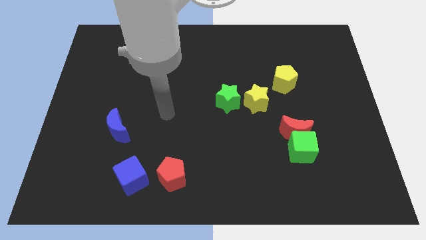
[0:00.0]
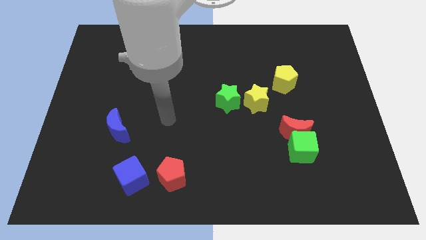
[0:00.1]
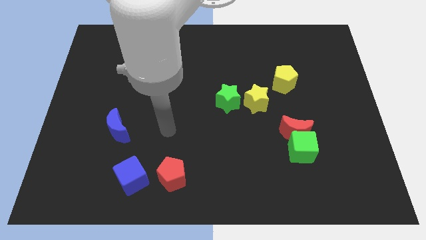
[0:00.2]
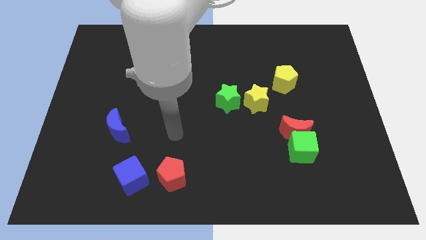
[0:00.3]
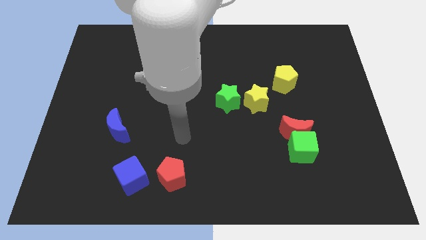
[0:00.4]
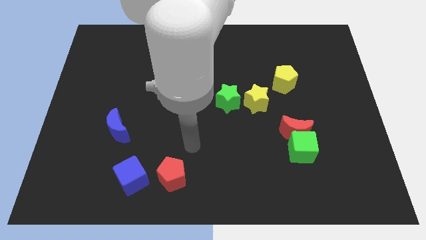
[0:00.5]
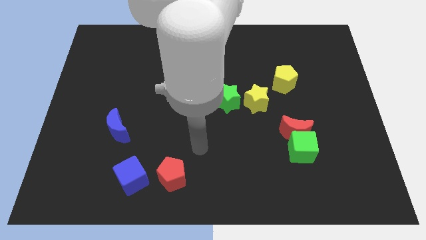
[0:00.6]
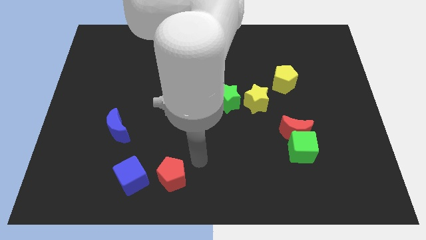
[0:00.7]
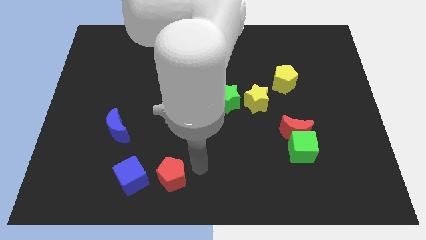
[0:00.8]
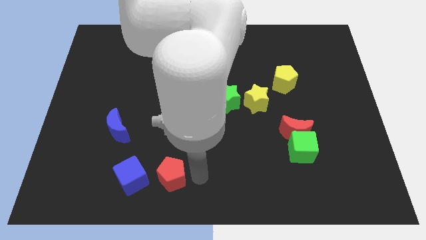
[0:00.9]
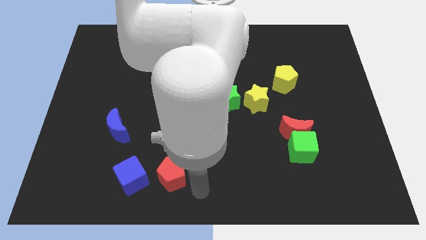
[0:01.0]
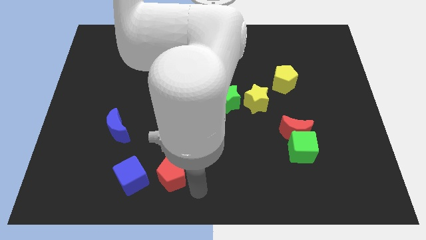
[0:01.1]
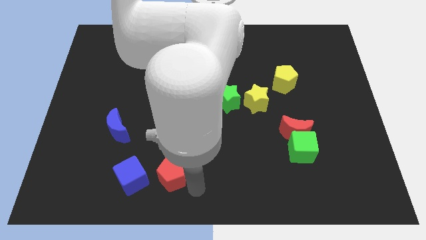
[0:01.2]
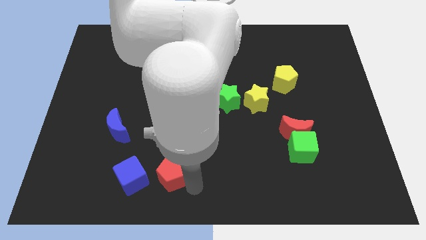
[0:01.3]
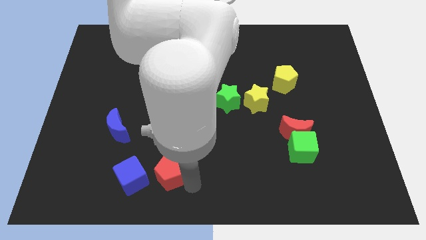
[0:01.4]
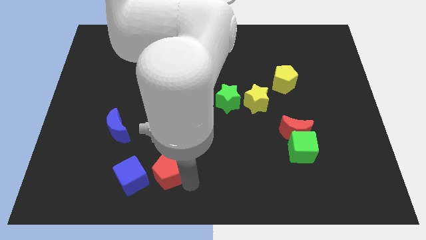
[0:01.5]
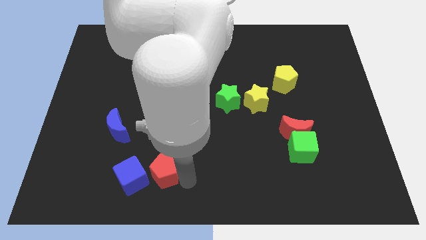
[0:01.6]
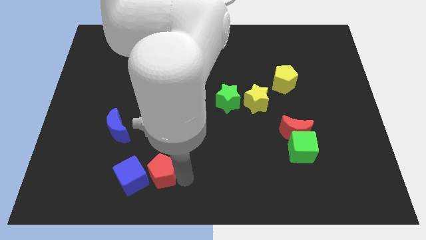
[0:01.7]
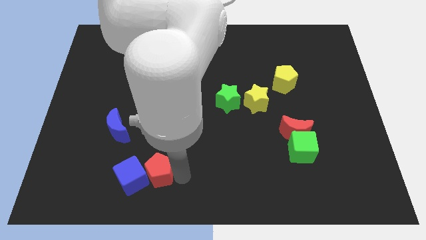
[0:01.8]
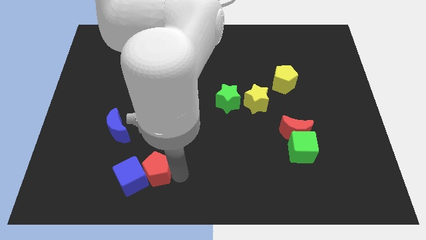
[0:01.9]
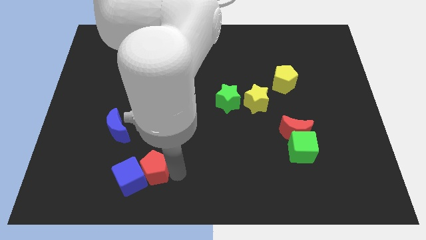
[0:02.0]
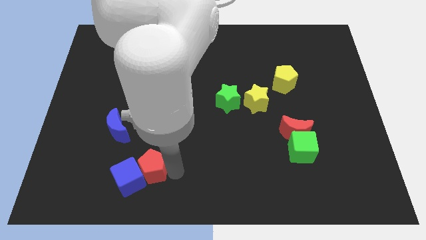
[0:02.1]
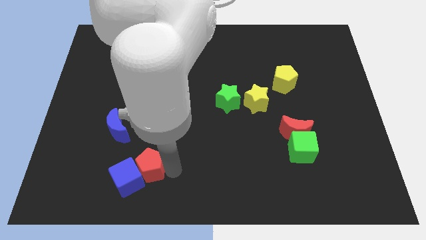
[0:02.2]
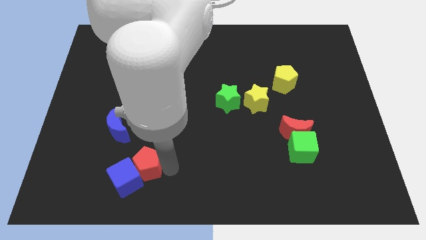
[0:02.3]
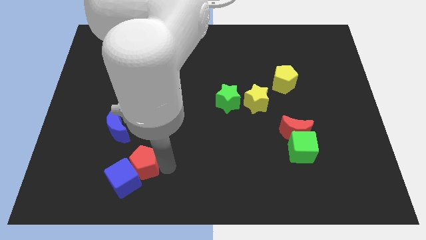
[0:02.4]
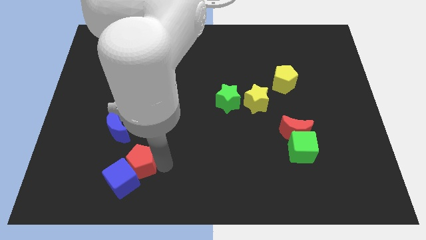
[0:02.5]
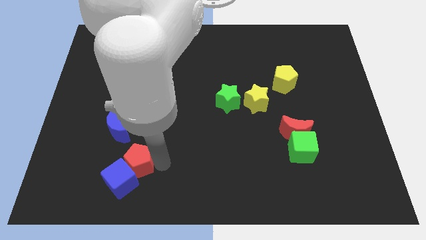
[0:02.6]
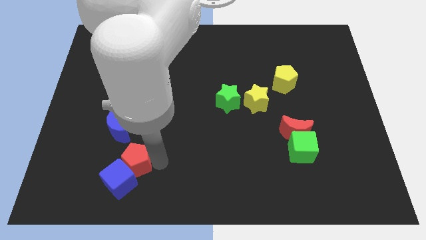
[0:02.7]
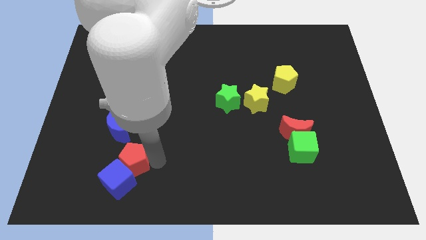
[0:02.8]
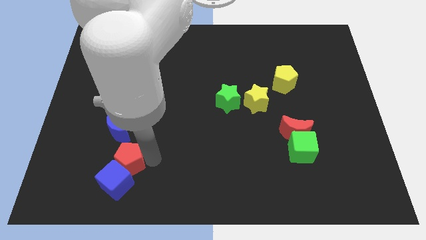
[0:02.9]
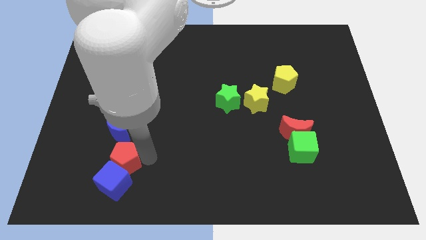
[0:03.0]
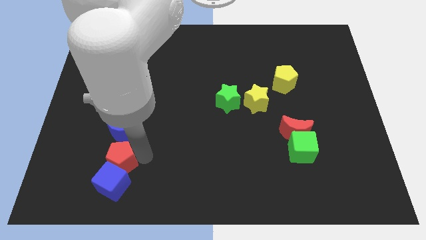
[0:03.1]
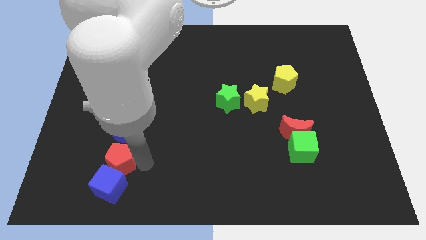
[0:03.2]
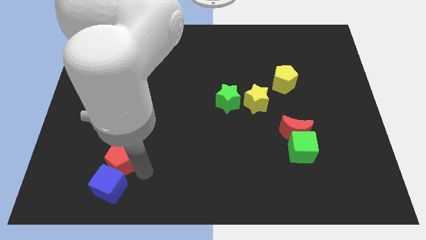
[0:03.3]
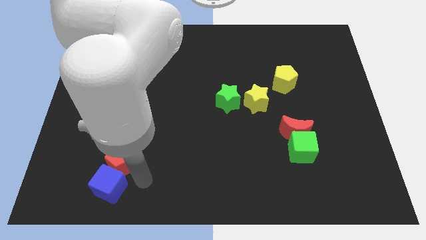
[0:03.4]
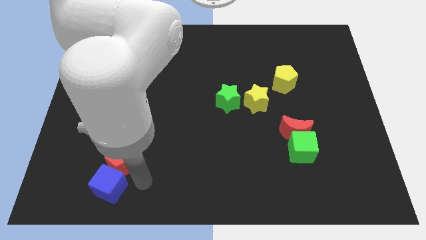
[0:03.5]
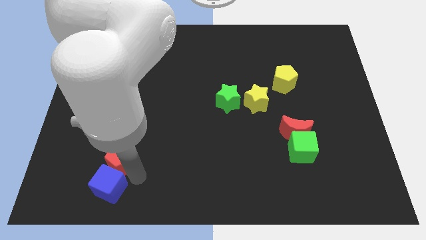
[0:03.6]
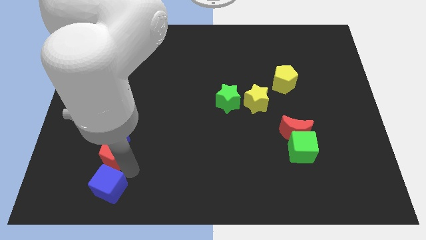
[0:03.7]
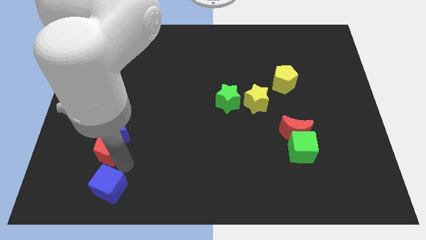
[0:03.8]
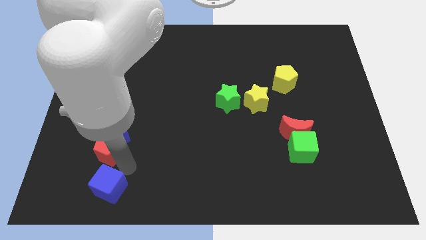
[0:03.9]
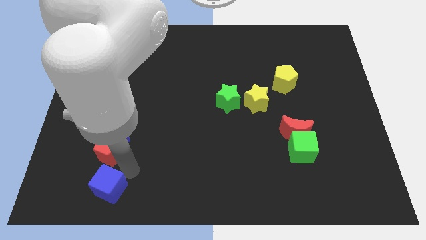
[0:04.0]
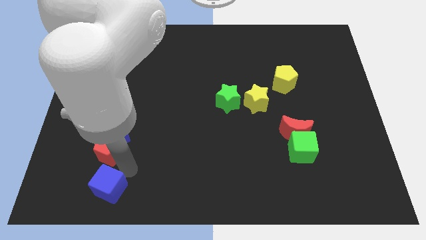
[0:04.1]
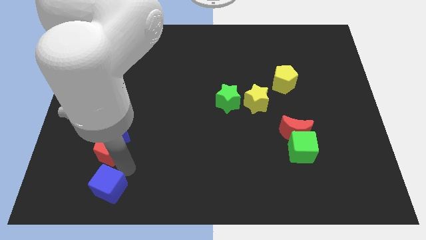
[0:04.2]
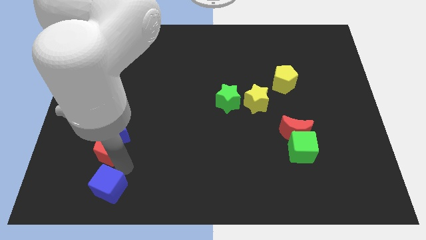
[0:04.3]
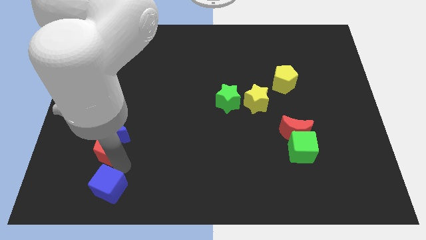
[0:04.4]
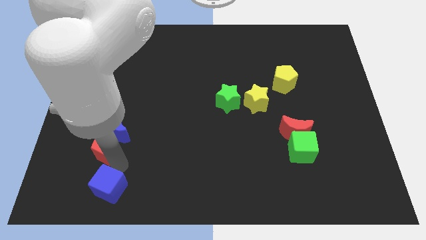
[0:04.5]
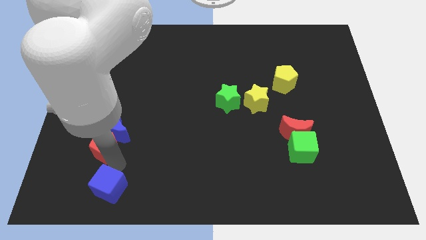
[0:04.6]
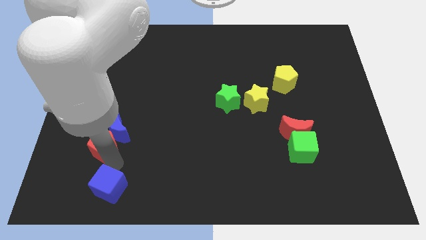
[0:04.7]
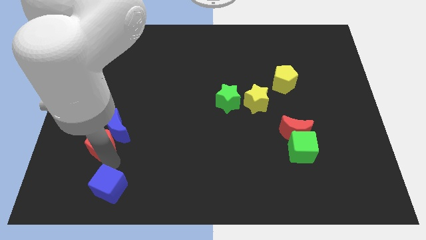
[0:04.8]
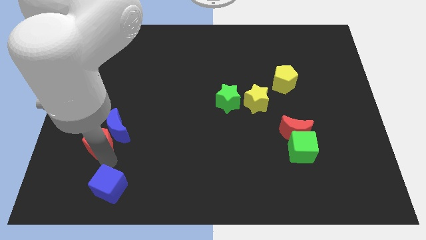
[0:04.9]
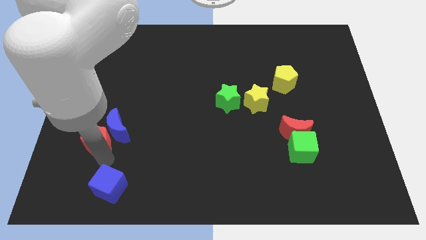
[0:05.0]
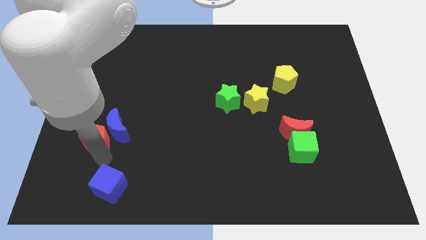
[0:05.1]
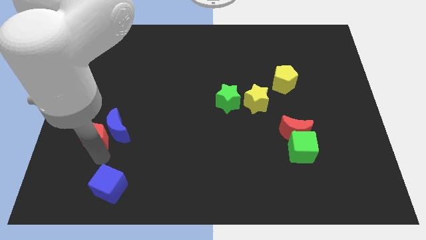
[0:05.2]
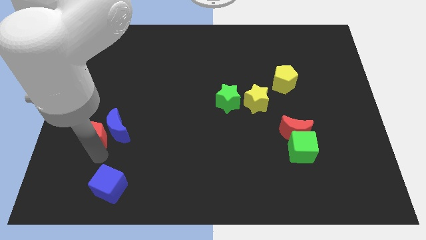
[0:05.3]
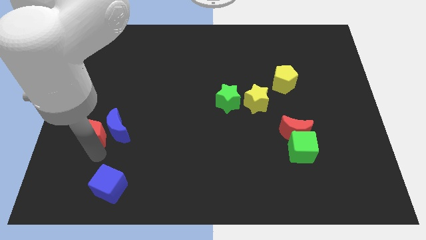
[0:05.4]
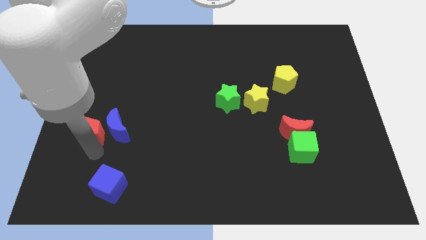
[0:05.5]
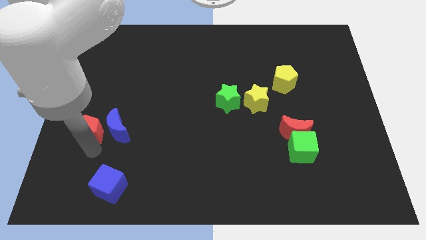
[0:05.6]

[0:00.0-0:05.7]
move the red pentagon diagonally up and to the left of the blue moon

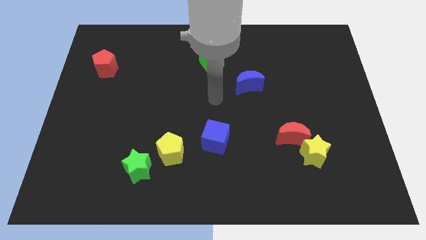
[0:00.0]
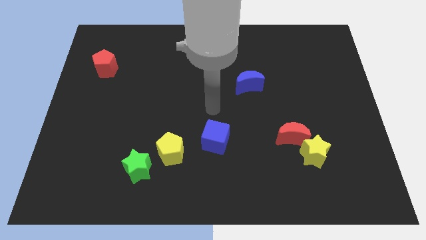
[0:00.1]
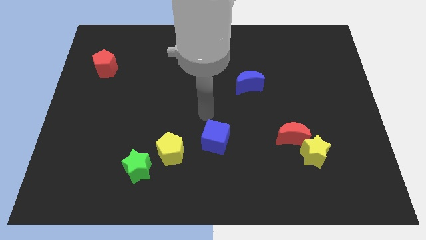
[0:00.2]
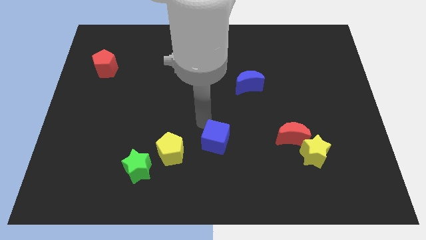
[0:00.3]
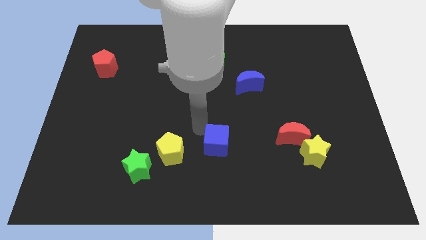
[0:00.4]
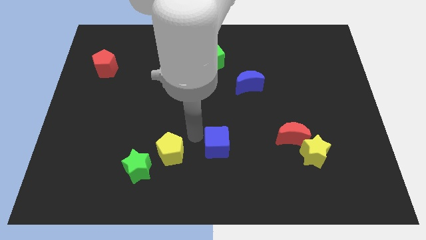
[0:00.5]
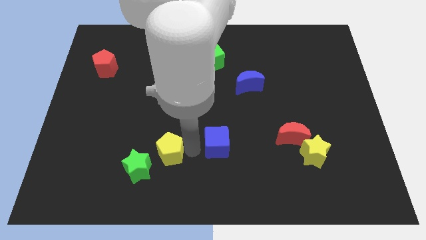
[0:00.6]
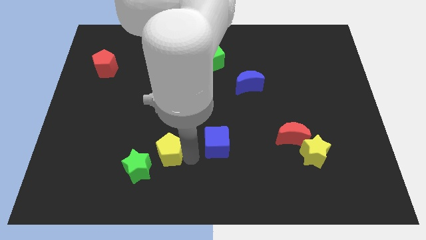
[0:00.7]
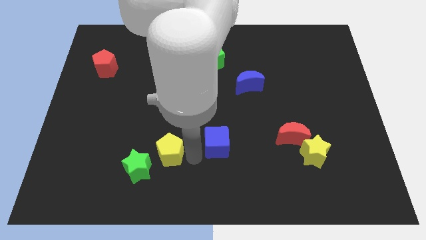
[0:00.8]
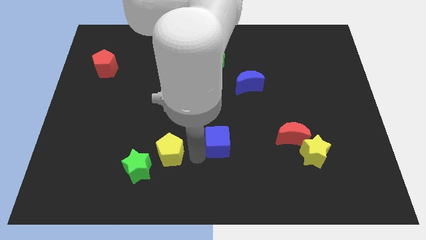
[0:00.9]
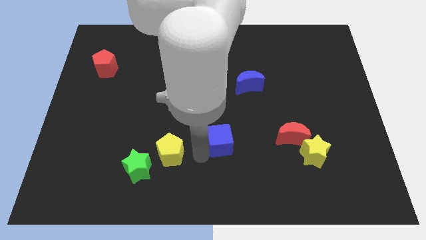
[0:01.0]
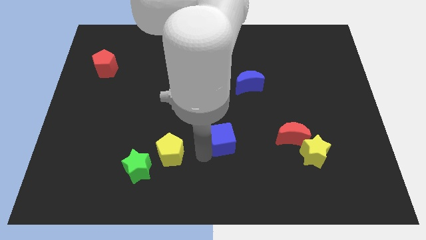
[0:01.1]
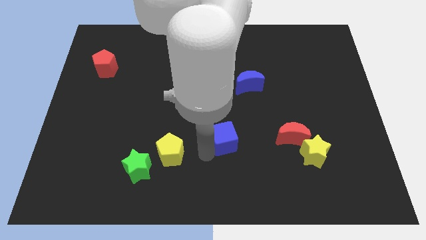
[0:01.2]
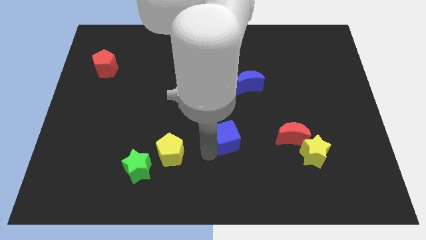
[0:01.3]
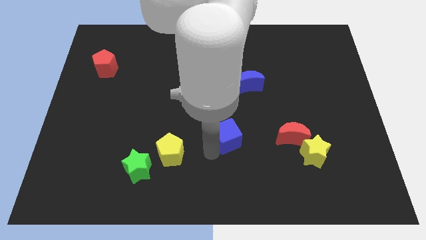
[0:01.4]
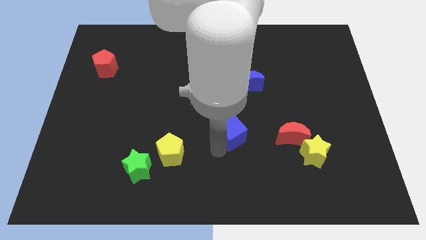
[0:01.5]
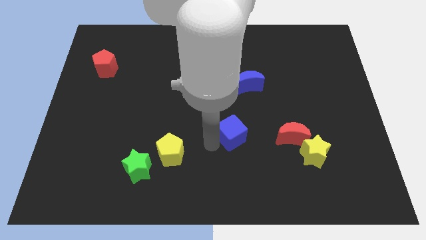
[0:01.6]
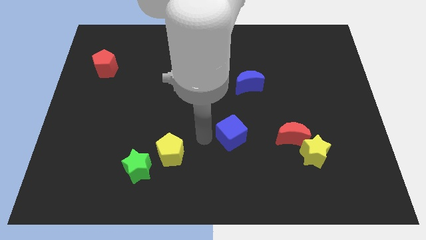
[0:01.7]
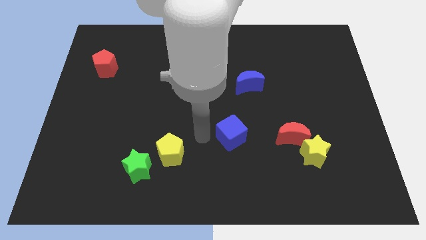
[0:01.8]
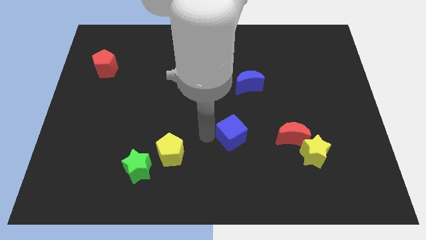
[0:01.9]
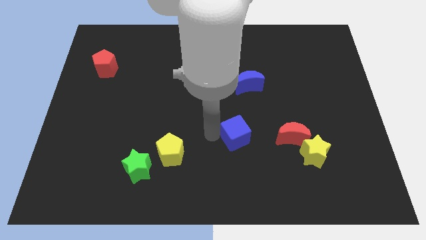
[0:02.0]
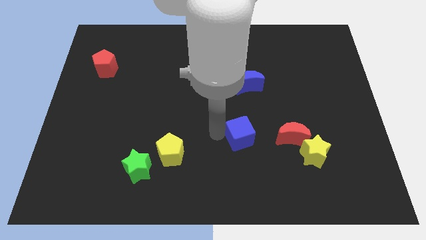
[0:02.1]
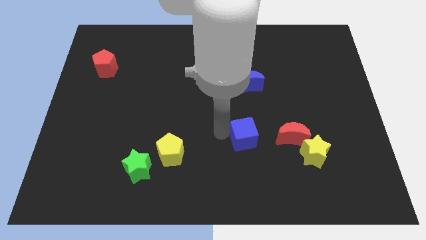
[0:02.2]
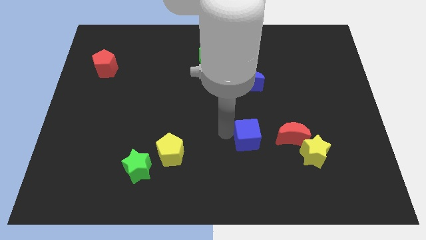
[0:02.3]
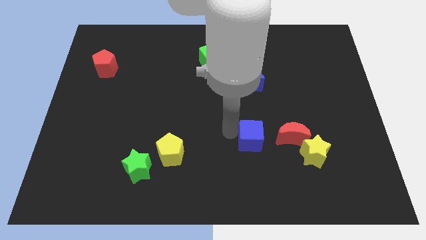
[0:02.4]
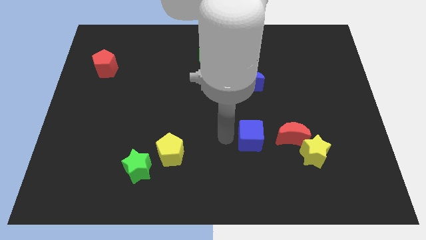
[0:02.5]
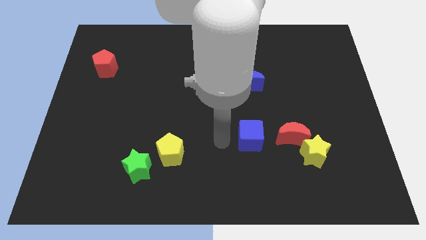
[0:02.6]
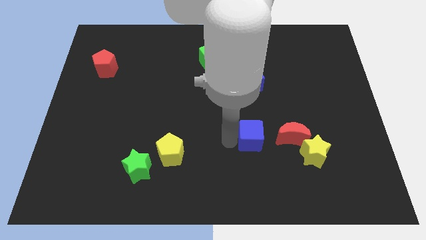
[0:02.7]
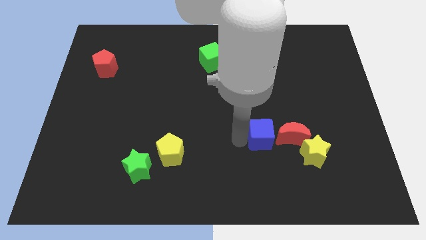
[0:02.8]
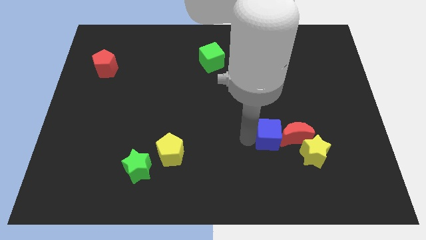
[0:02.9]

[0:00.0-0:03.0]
push the blue cube diagonally up and to the left of the yellow star
